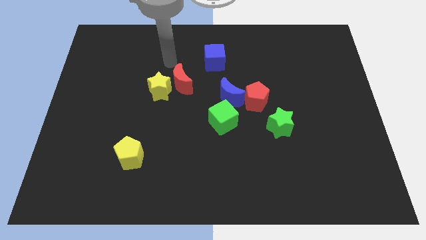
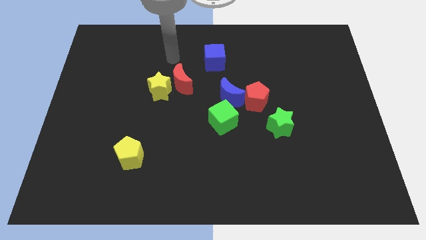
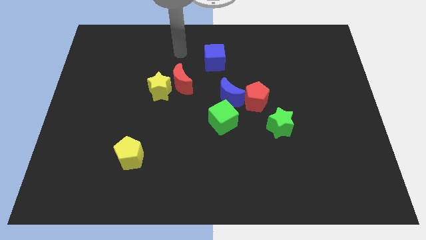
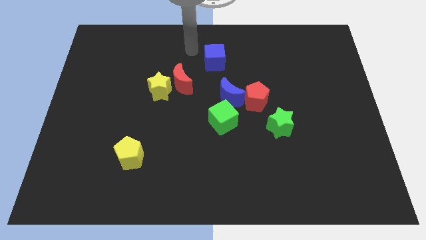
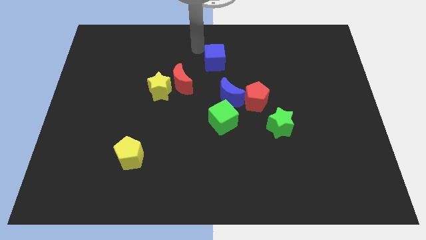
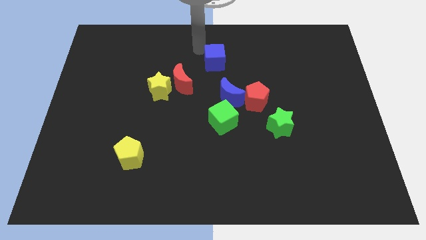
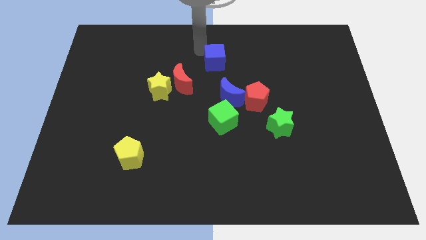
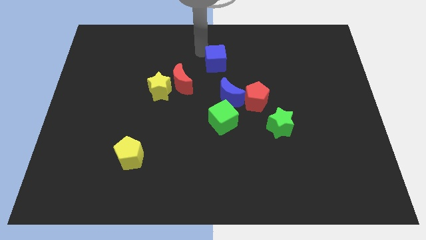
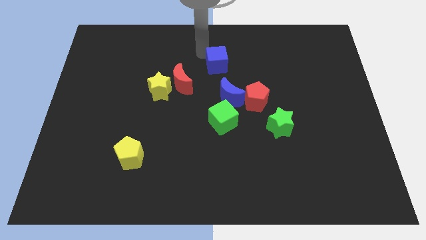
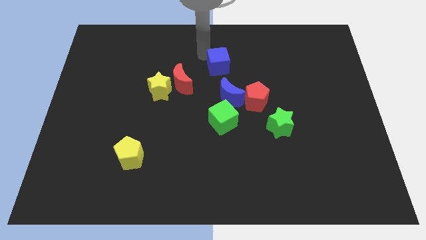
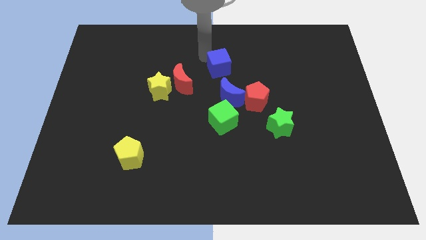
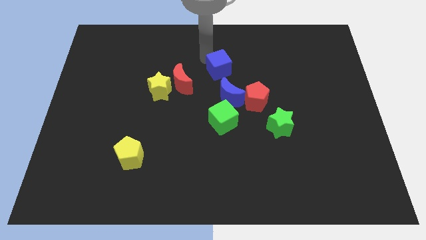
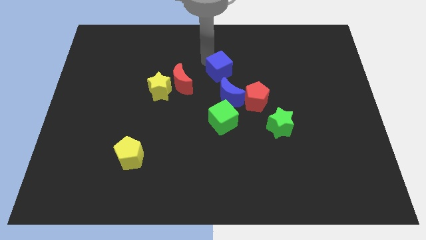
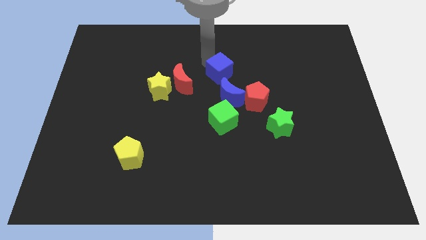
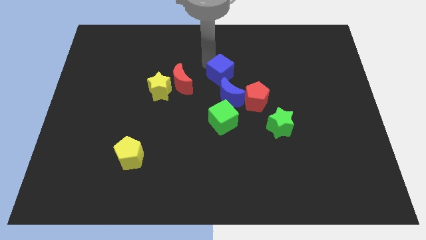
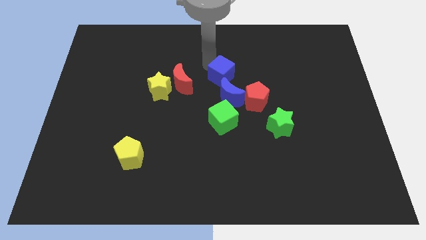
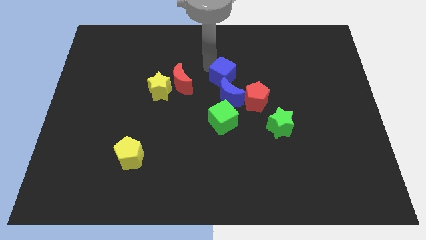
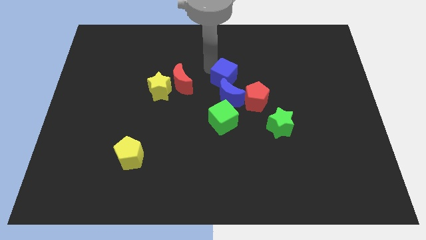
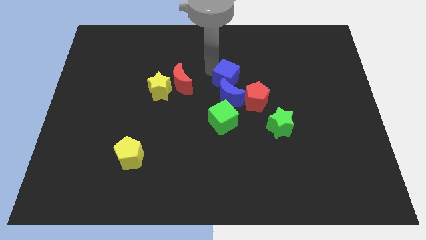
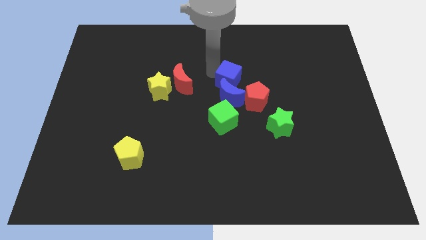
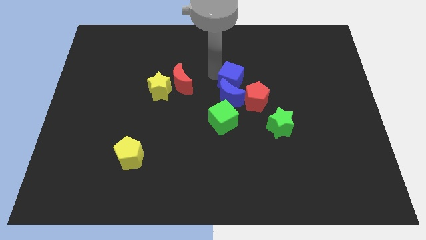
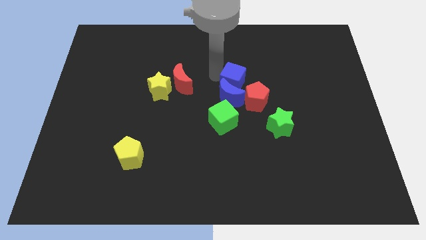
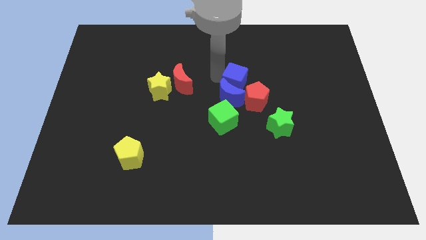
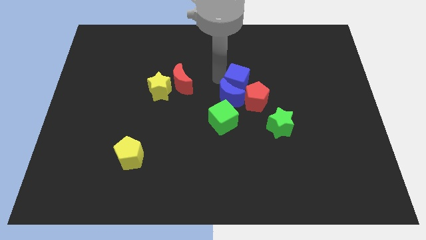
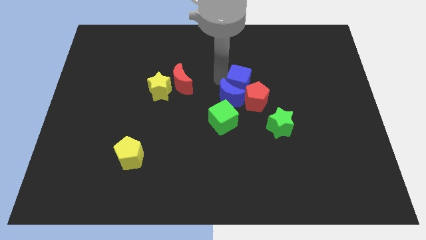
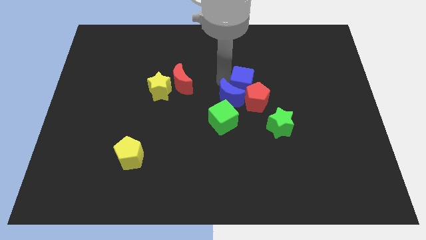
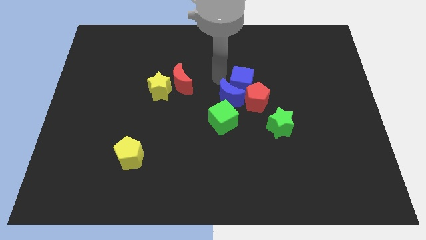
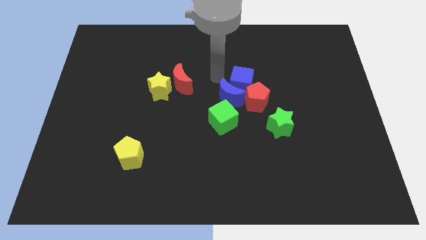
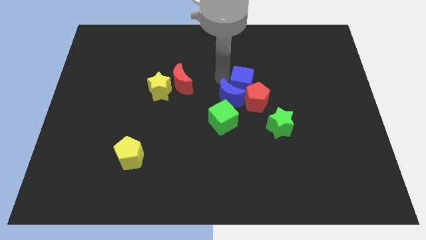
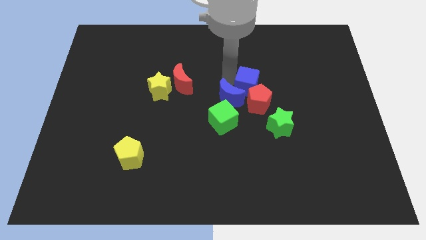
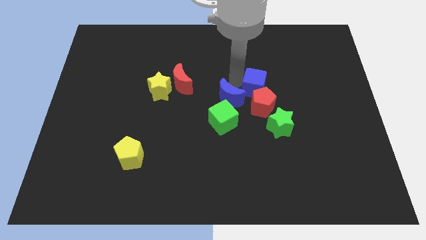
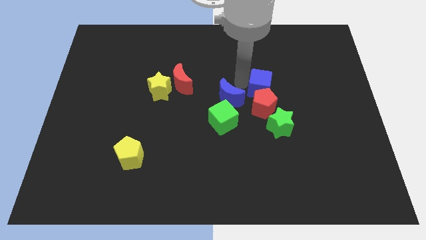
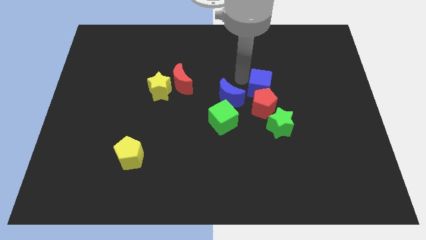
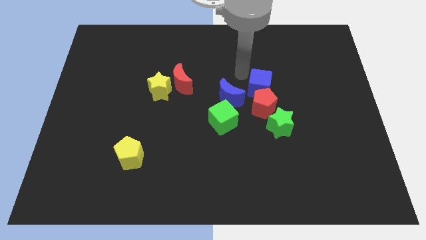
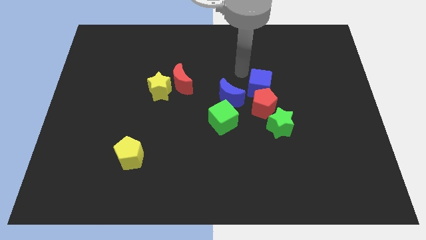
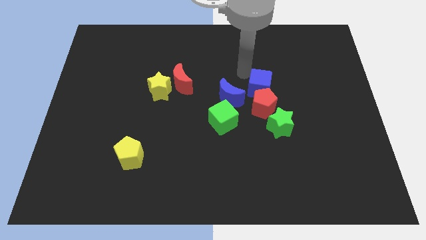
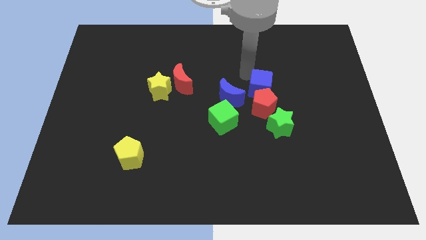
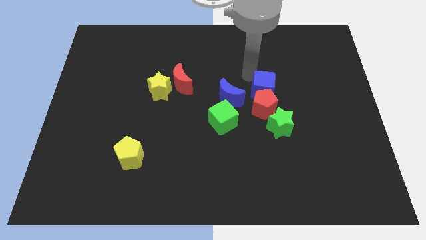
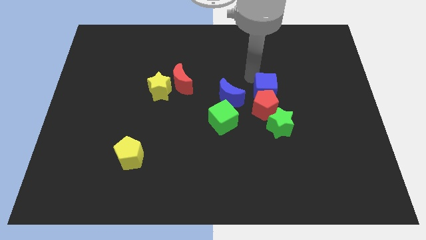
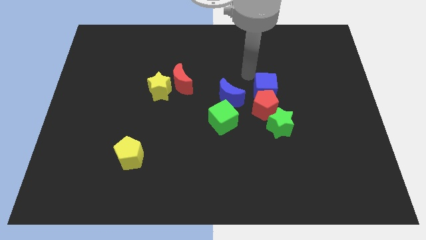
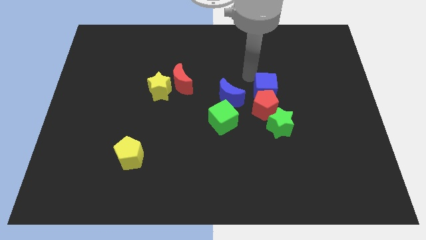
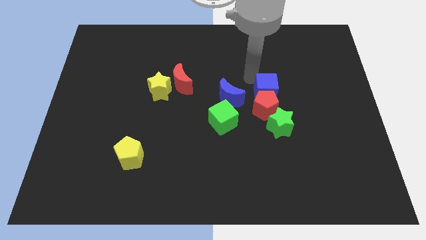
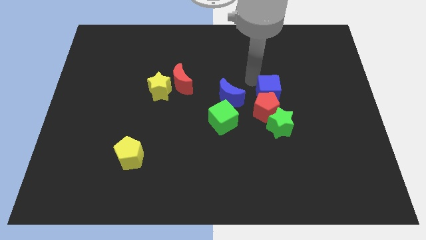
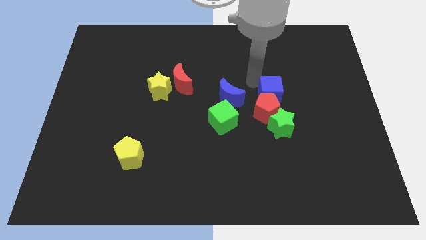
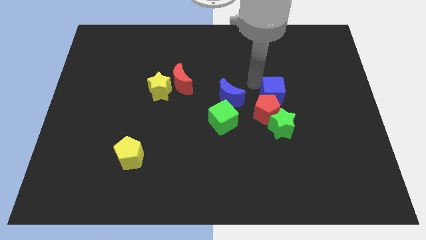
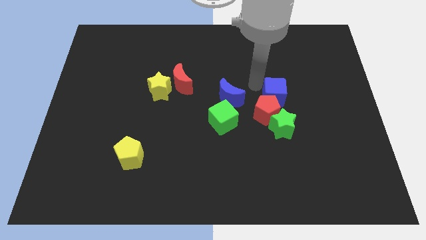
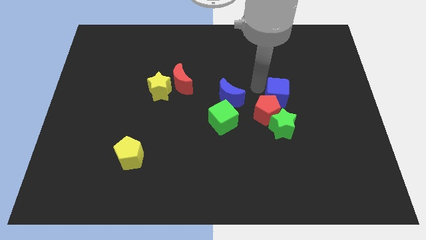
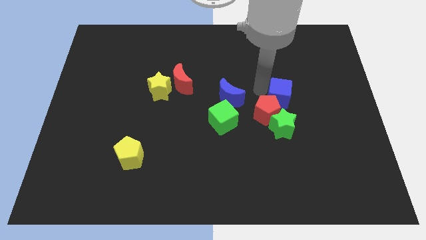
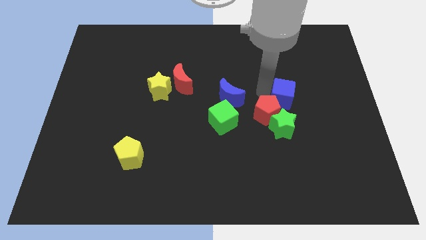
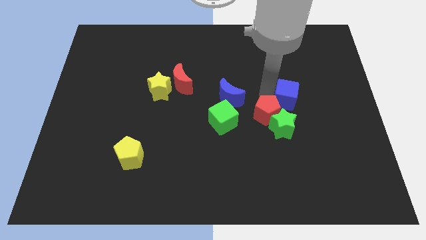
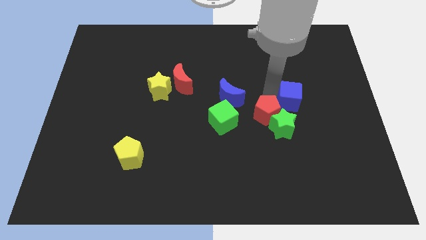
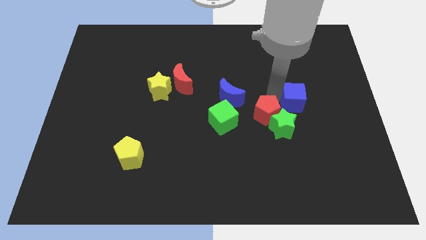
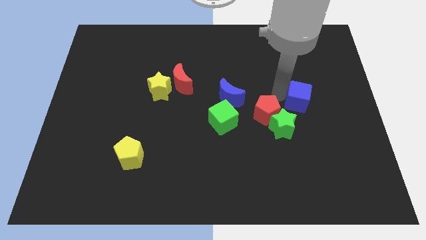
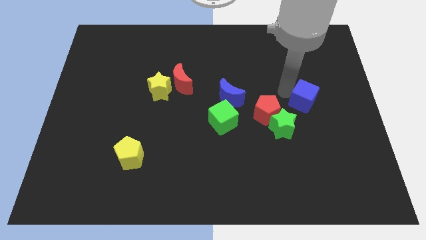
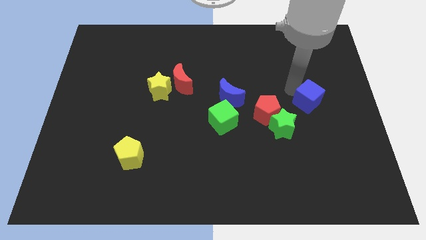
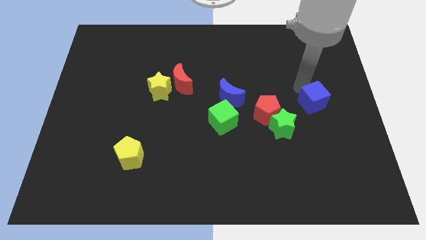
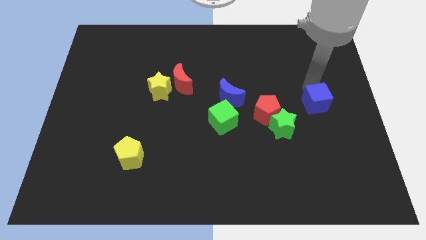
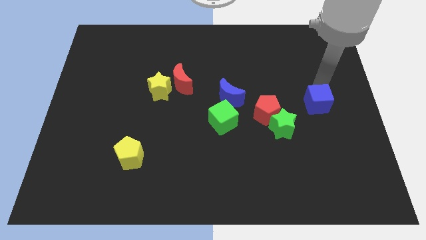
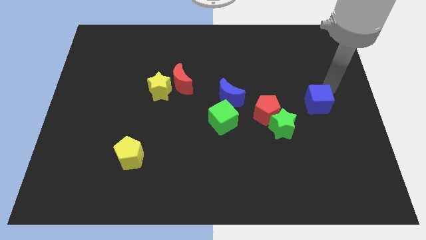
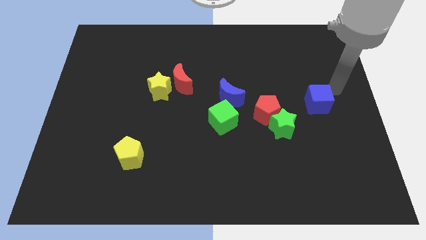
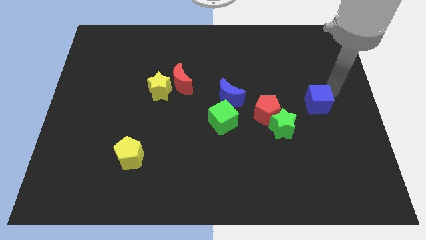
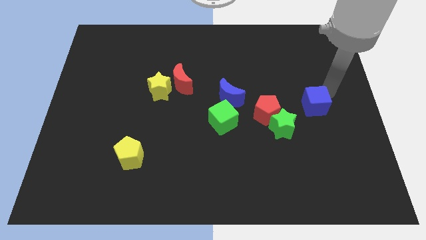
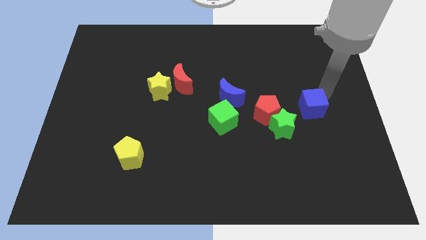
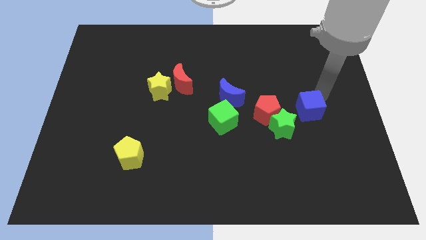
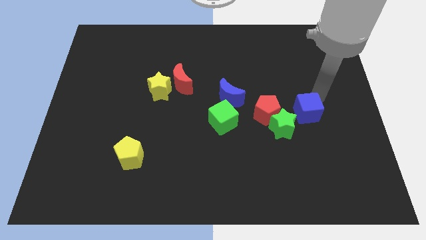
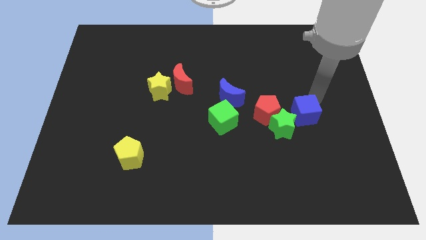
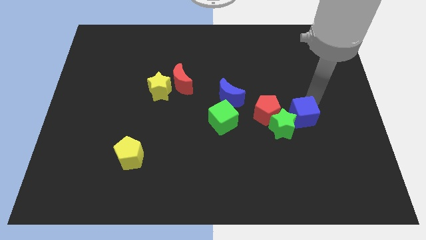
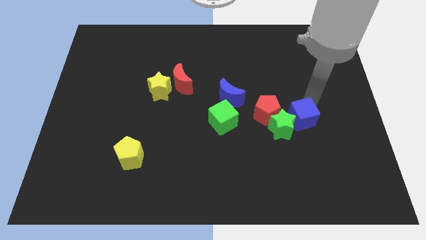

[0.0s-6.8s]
slide the blue cube towards the green star
